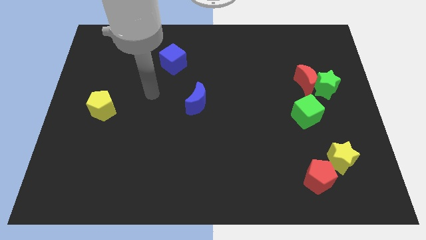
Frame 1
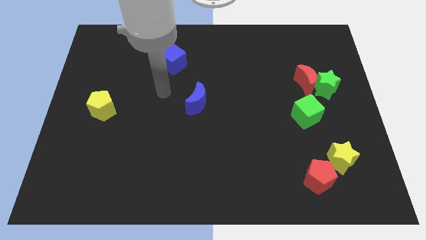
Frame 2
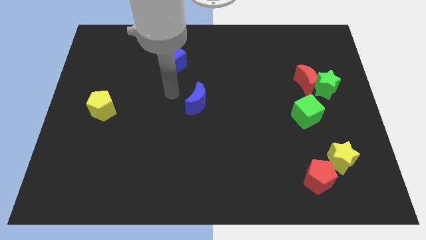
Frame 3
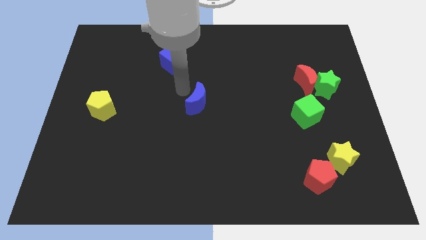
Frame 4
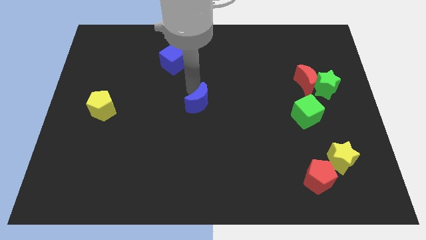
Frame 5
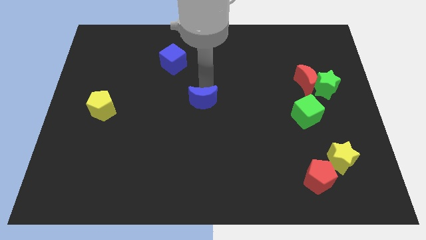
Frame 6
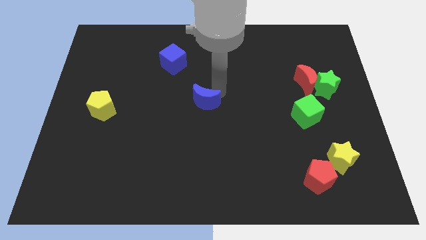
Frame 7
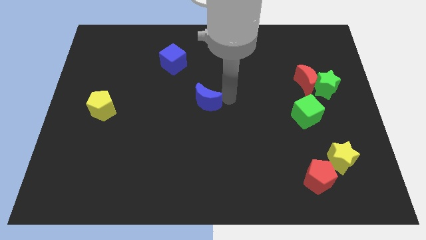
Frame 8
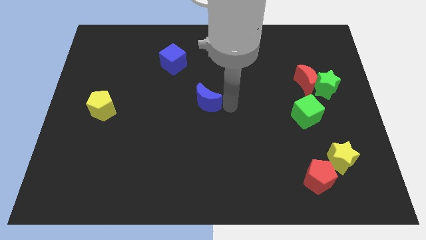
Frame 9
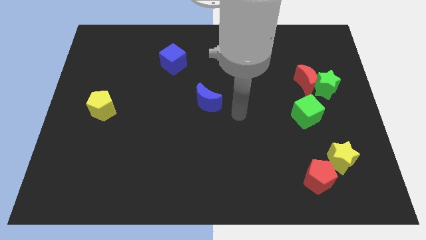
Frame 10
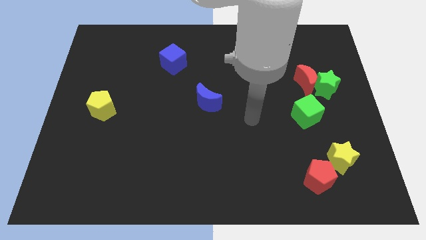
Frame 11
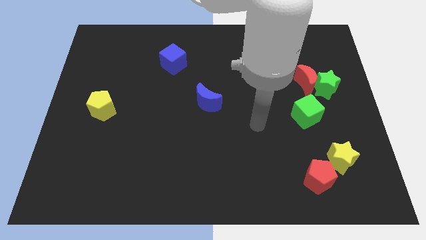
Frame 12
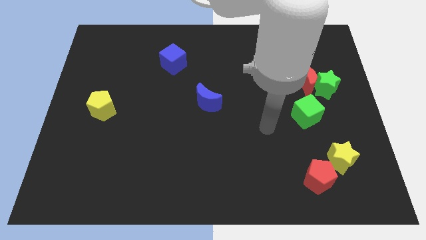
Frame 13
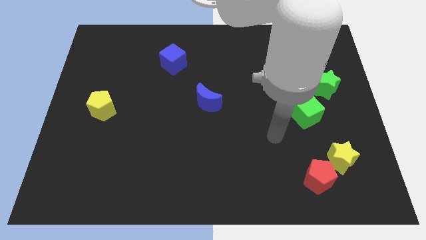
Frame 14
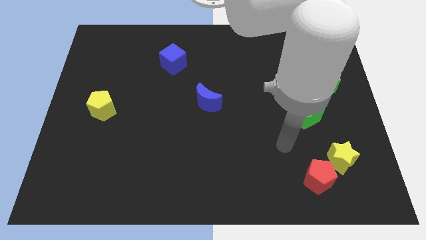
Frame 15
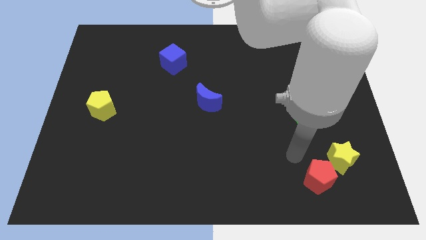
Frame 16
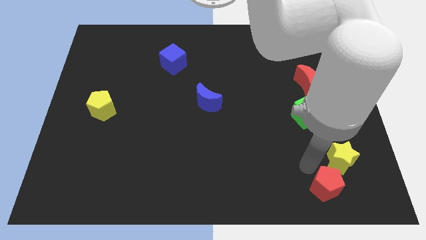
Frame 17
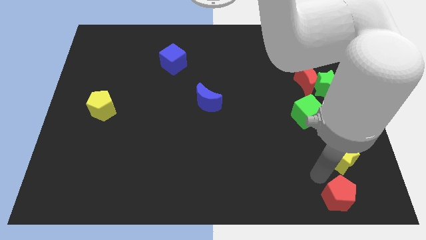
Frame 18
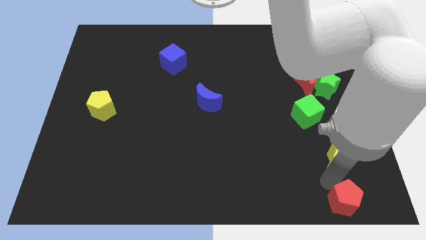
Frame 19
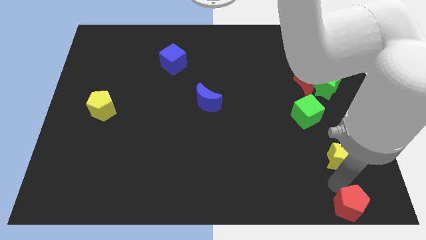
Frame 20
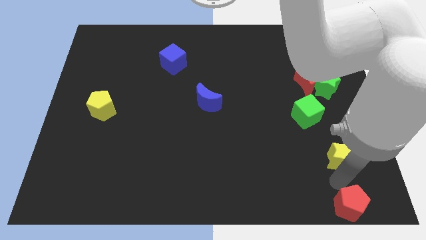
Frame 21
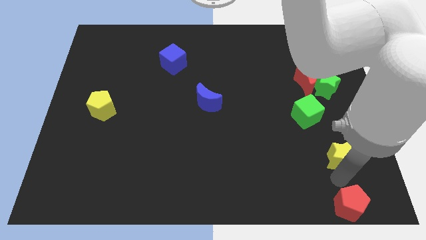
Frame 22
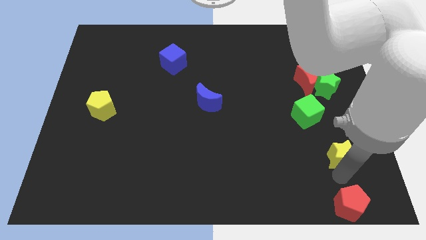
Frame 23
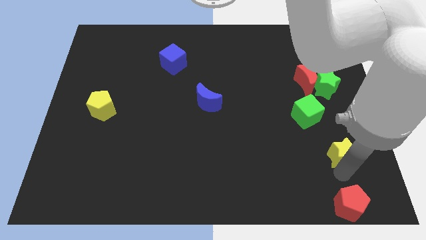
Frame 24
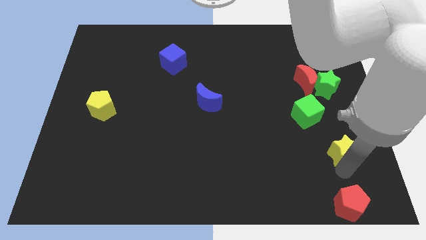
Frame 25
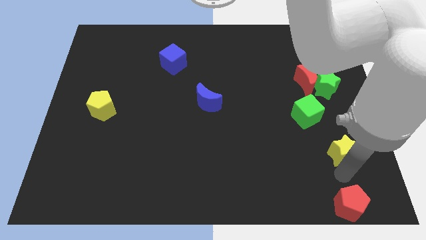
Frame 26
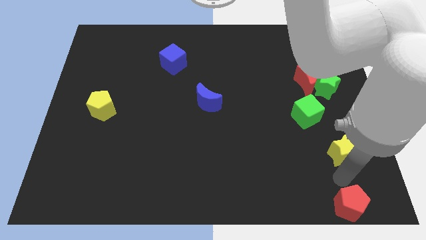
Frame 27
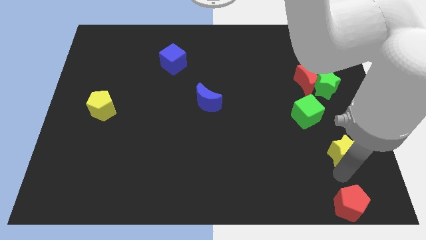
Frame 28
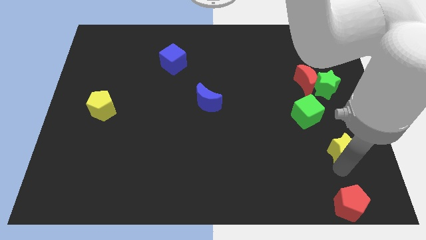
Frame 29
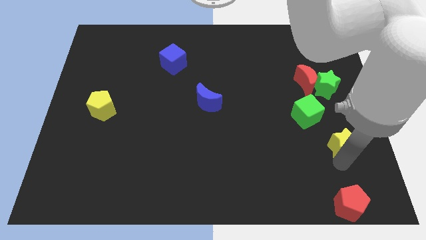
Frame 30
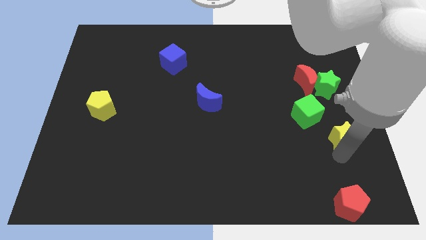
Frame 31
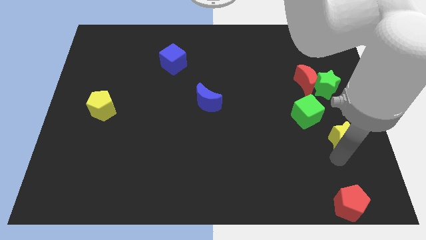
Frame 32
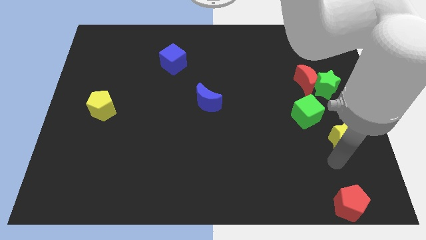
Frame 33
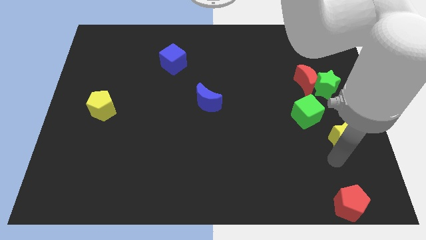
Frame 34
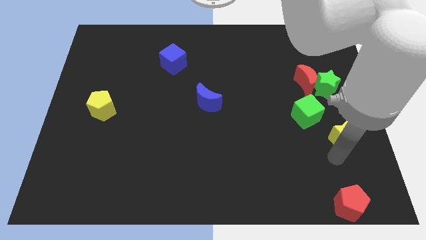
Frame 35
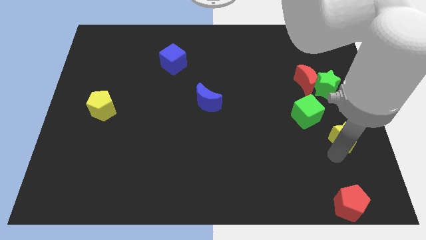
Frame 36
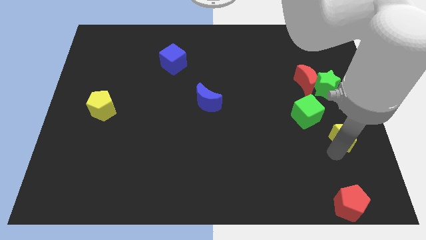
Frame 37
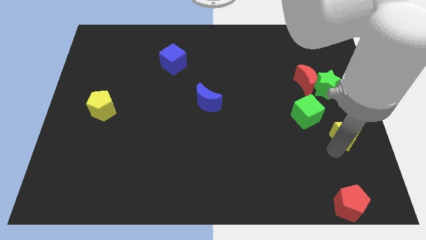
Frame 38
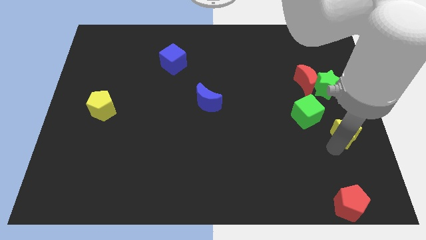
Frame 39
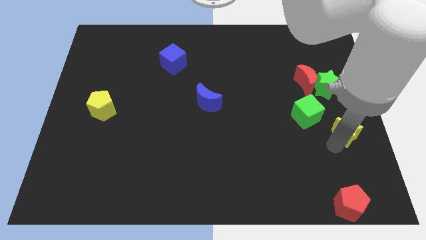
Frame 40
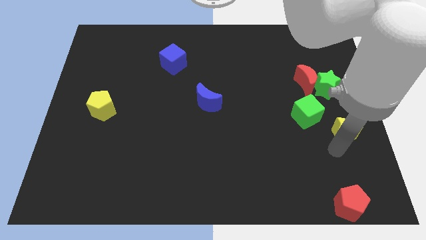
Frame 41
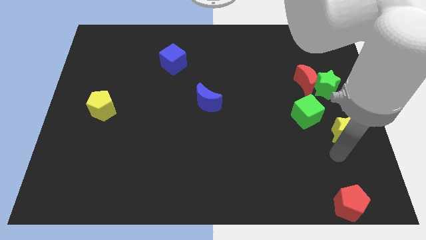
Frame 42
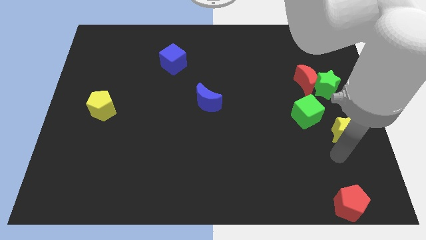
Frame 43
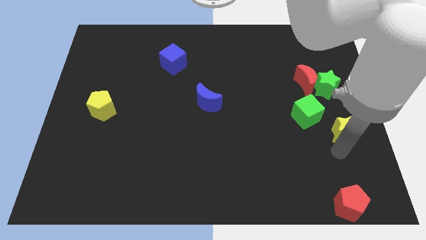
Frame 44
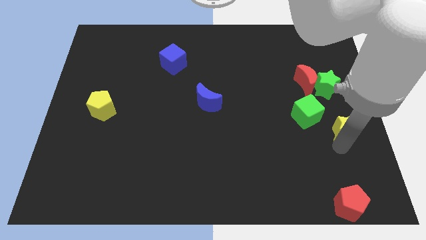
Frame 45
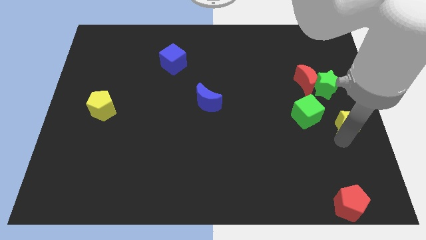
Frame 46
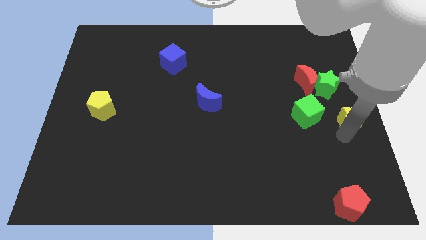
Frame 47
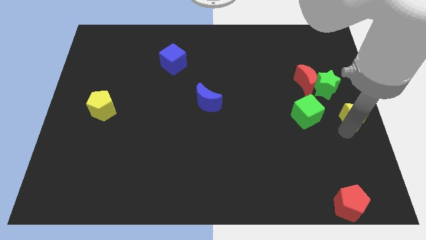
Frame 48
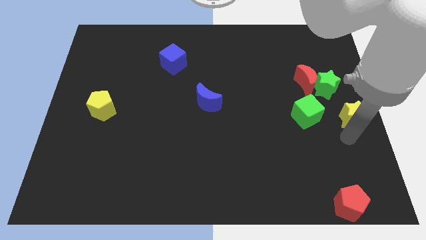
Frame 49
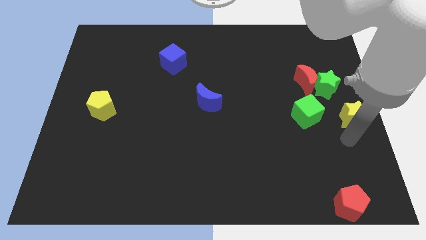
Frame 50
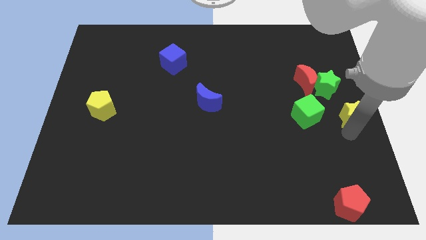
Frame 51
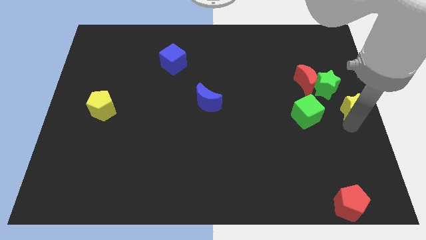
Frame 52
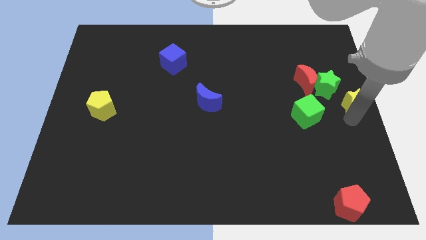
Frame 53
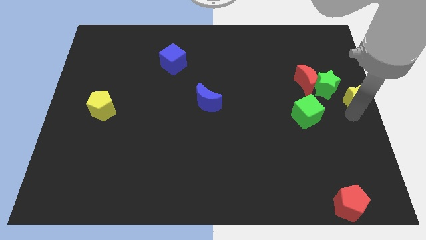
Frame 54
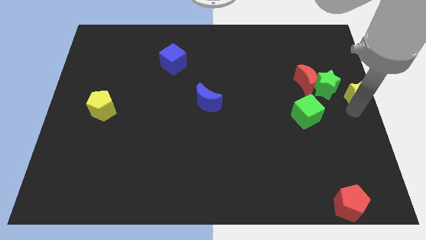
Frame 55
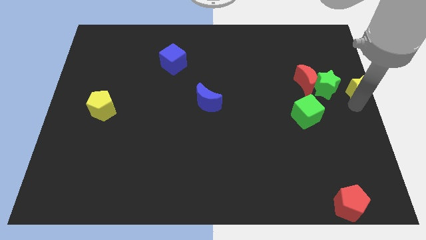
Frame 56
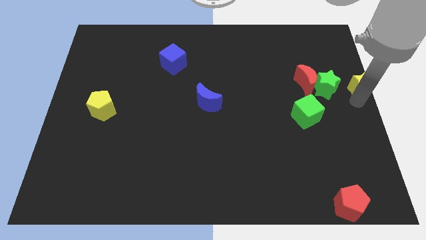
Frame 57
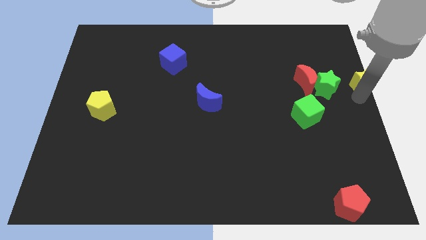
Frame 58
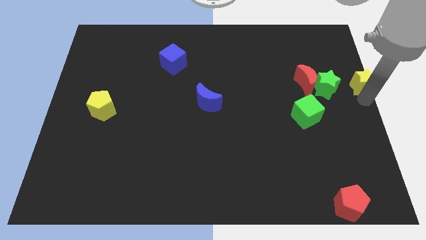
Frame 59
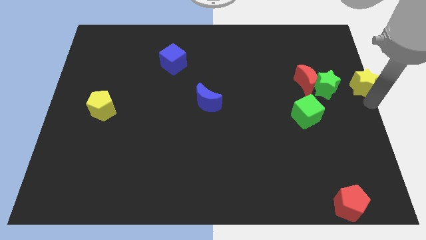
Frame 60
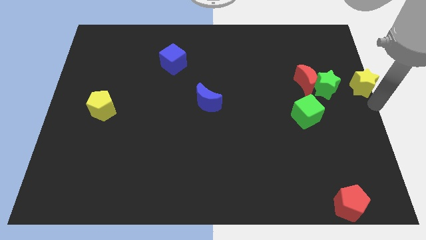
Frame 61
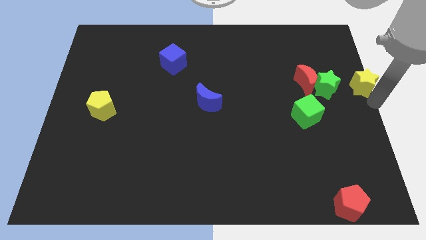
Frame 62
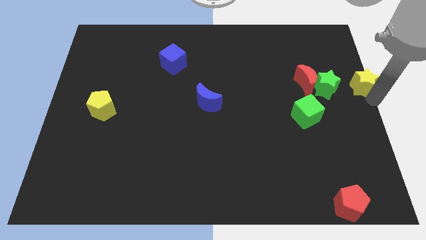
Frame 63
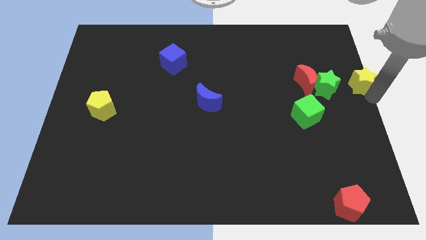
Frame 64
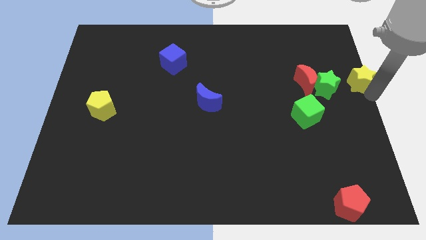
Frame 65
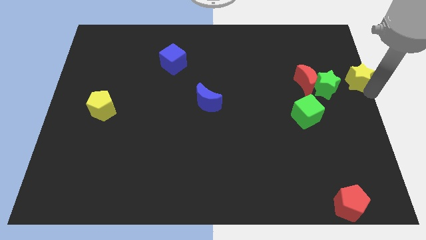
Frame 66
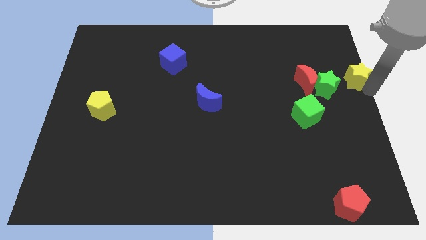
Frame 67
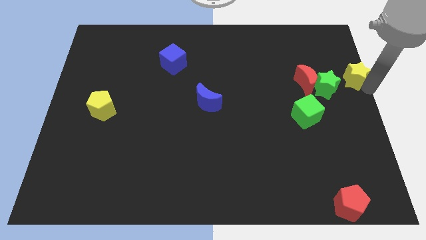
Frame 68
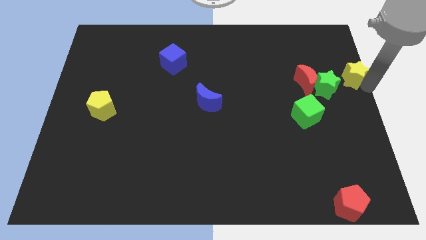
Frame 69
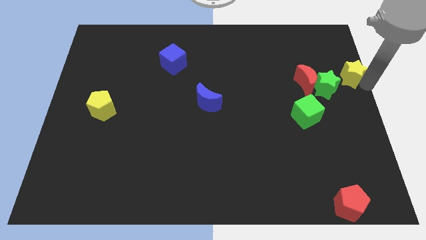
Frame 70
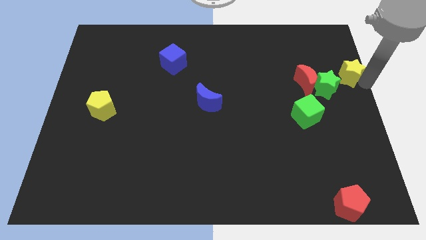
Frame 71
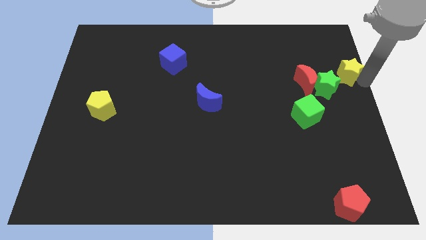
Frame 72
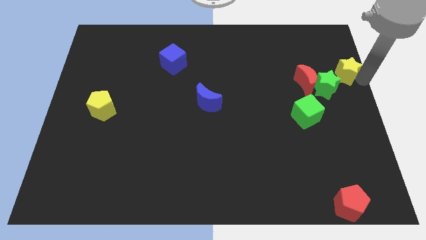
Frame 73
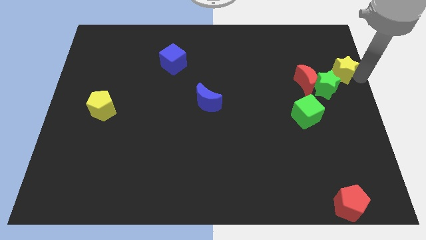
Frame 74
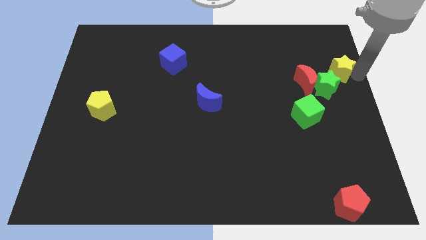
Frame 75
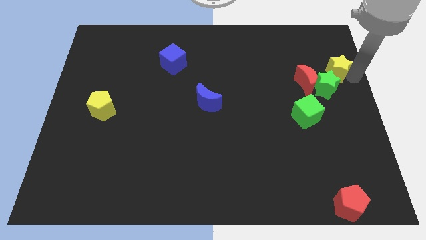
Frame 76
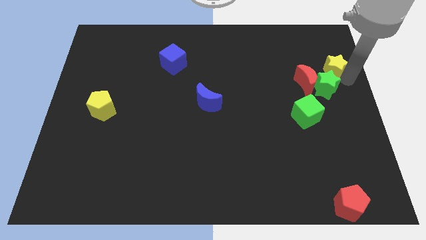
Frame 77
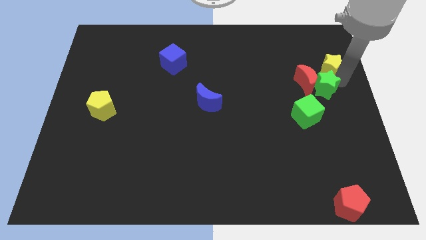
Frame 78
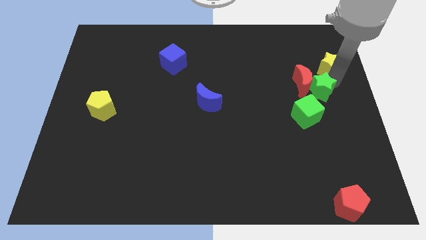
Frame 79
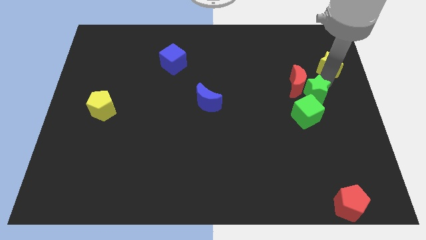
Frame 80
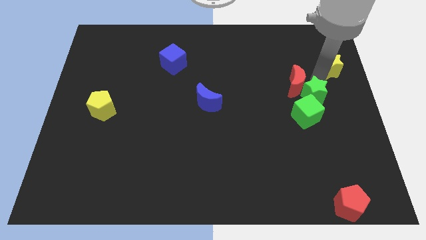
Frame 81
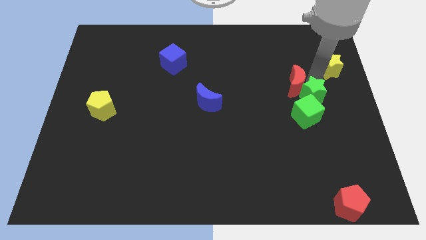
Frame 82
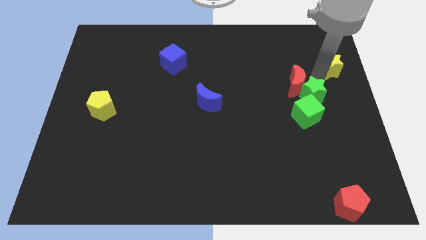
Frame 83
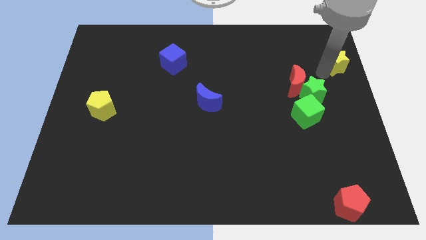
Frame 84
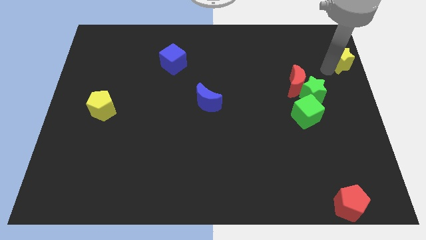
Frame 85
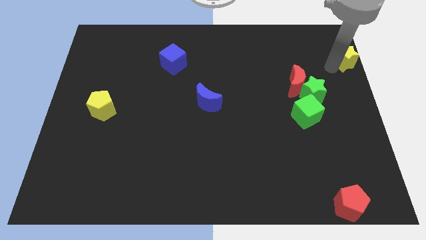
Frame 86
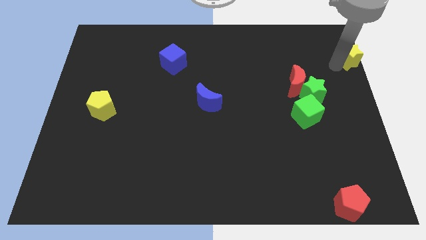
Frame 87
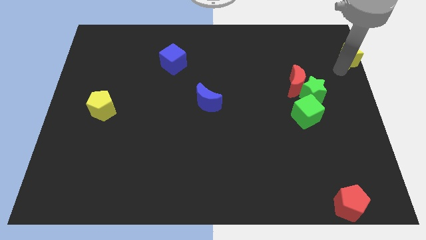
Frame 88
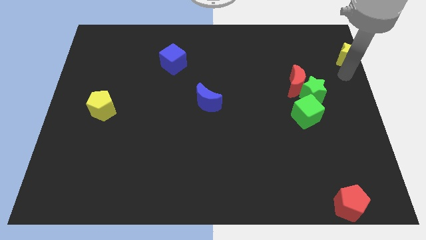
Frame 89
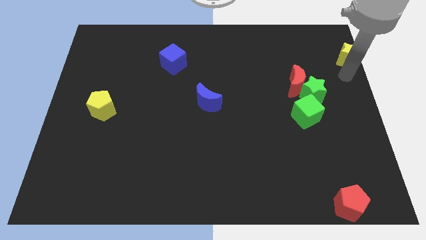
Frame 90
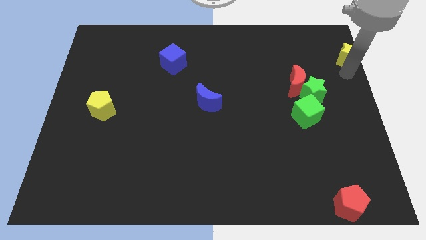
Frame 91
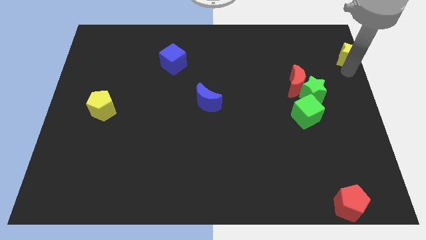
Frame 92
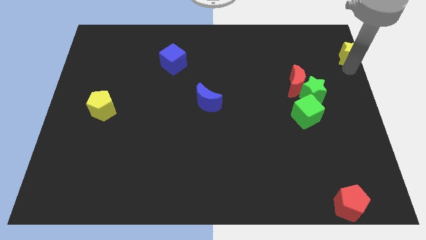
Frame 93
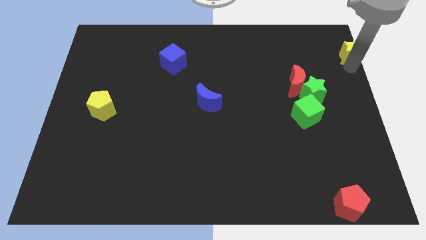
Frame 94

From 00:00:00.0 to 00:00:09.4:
move the yellow star to the upper right corner
